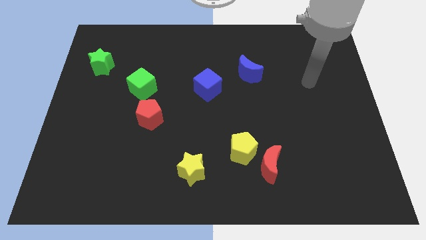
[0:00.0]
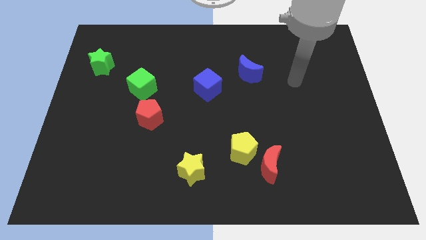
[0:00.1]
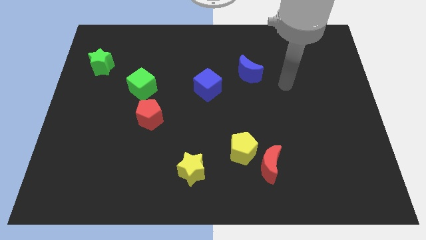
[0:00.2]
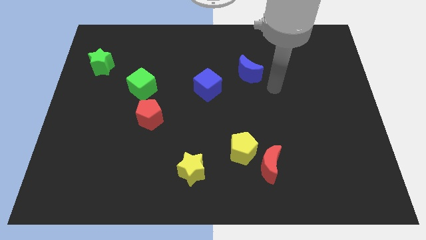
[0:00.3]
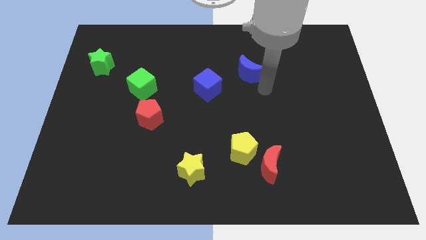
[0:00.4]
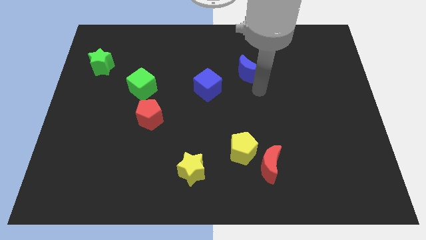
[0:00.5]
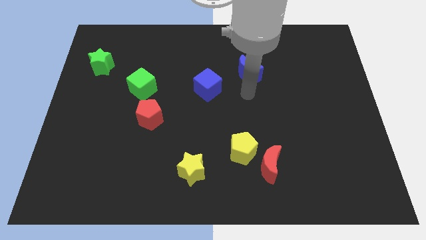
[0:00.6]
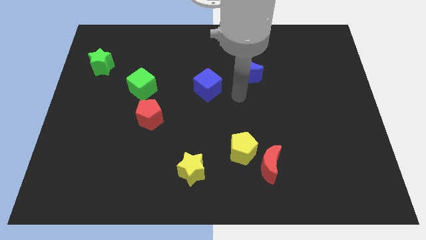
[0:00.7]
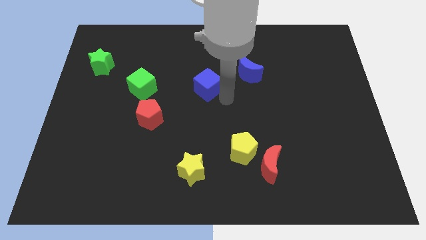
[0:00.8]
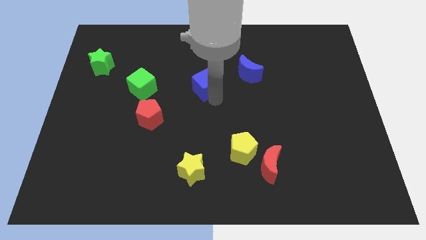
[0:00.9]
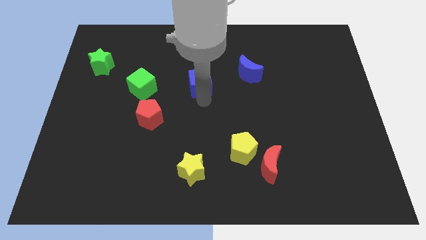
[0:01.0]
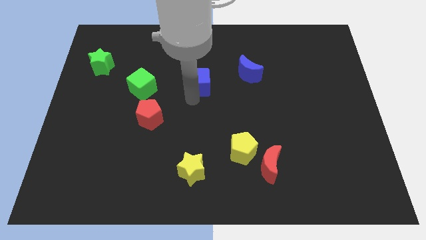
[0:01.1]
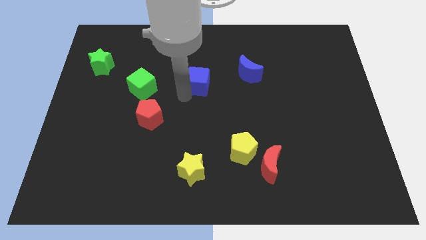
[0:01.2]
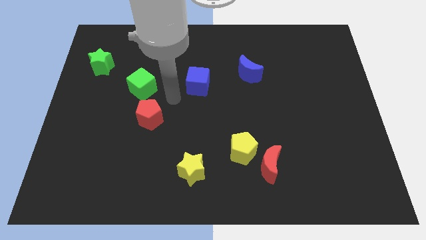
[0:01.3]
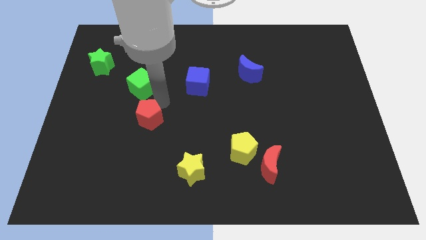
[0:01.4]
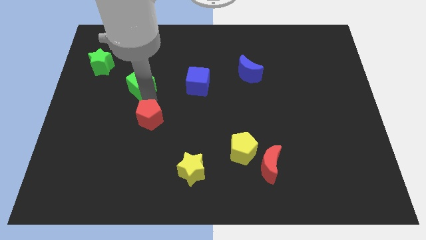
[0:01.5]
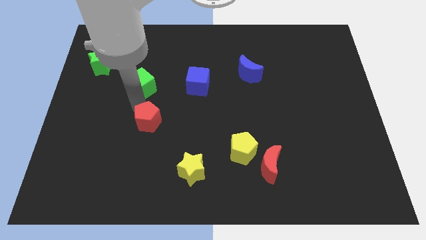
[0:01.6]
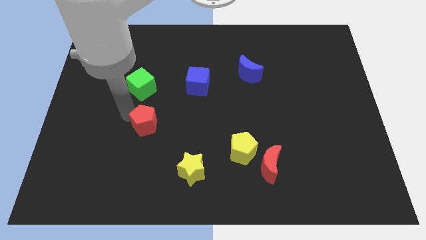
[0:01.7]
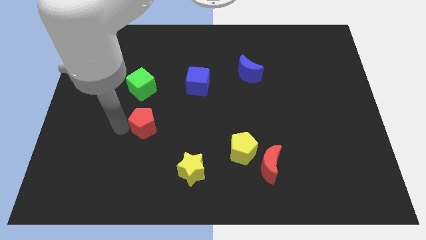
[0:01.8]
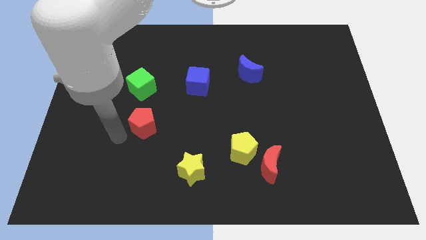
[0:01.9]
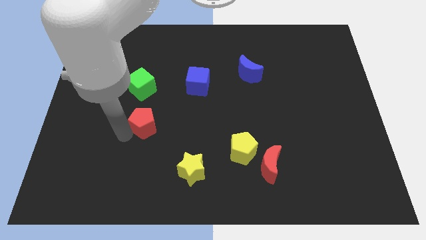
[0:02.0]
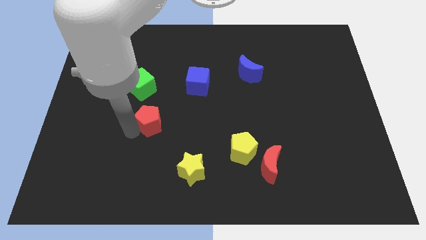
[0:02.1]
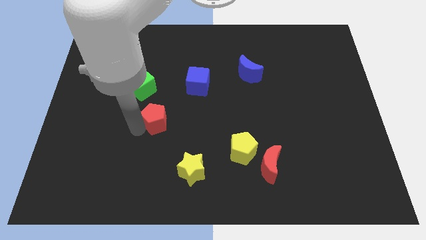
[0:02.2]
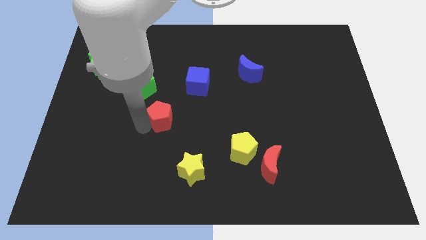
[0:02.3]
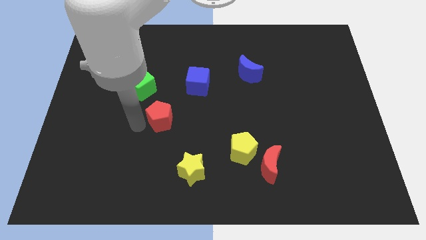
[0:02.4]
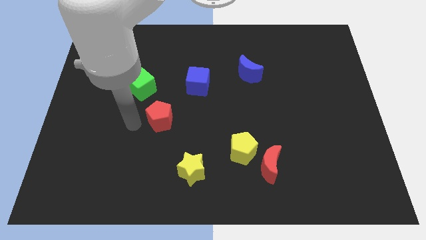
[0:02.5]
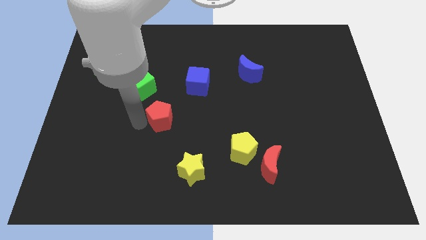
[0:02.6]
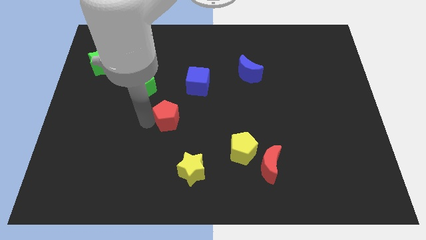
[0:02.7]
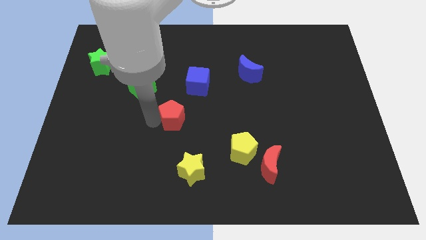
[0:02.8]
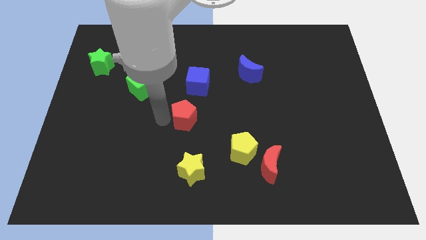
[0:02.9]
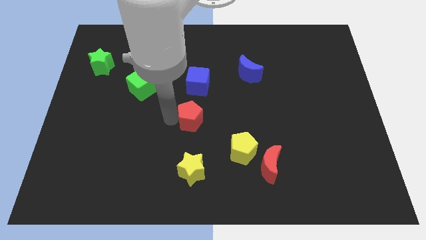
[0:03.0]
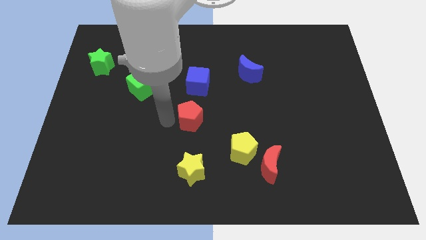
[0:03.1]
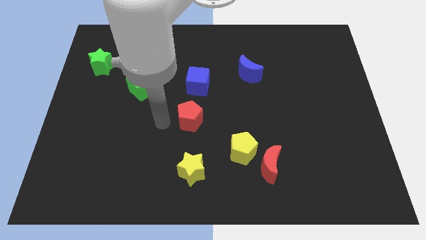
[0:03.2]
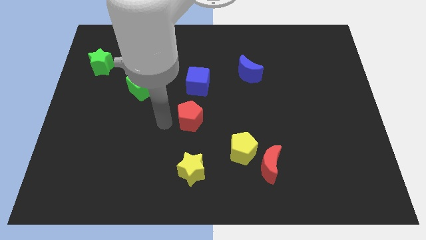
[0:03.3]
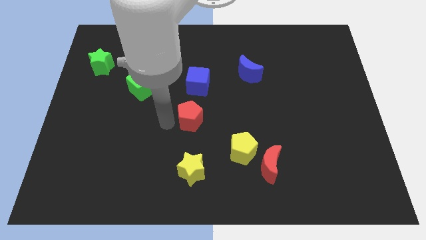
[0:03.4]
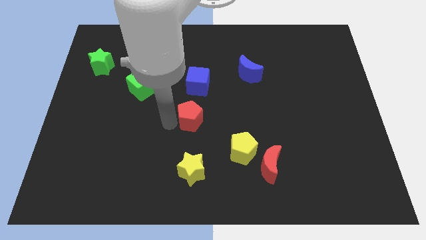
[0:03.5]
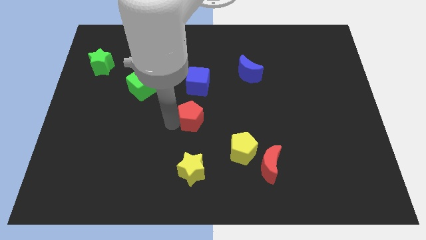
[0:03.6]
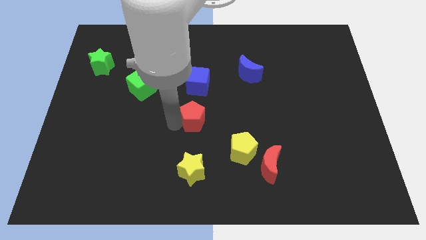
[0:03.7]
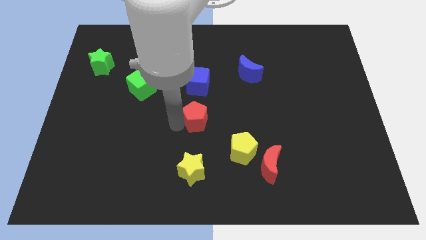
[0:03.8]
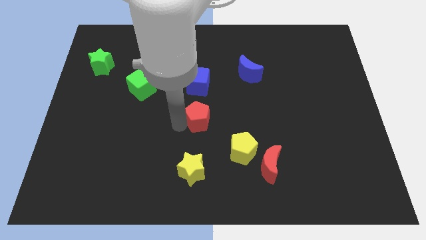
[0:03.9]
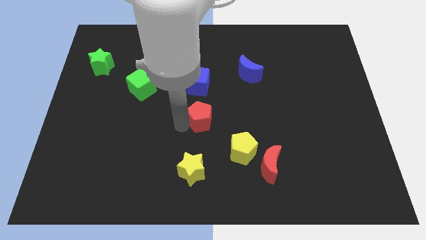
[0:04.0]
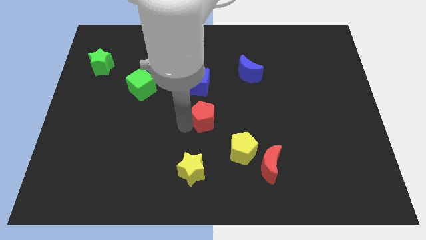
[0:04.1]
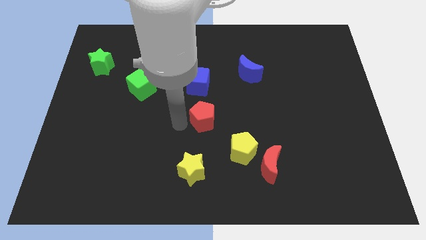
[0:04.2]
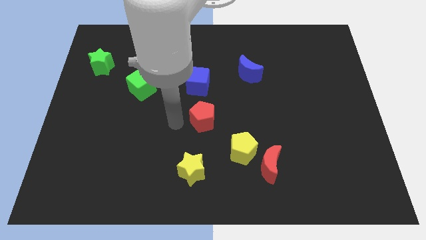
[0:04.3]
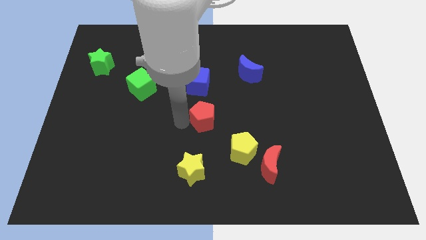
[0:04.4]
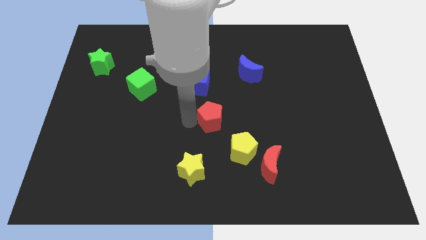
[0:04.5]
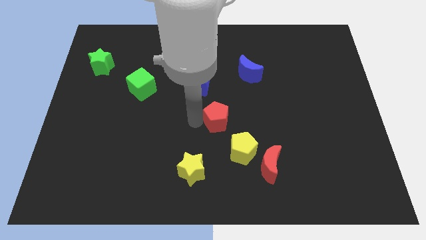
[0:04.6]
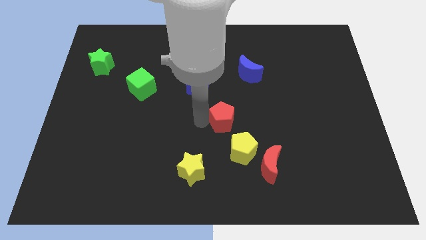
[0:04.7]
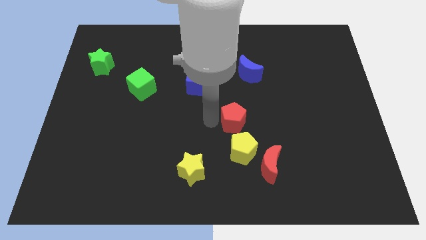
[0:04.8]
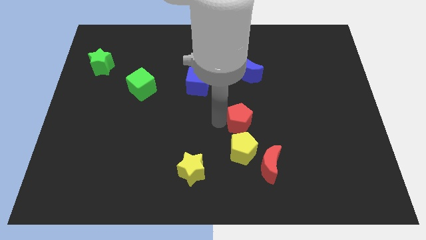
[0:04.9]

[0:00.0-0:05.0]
push the red pentagon right

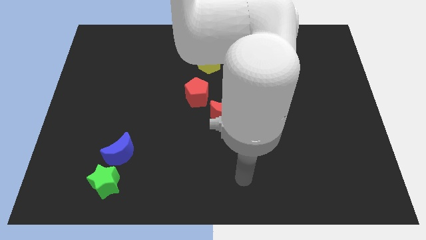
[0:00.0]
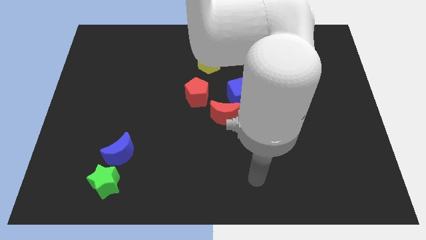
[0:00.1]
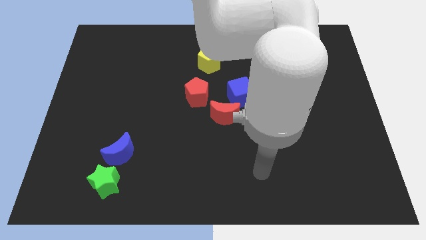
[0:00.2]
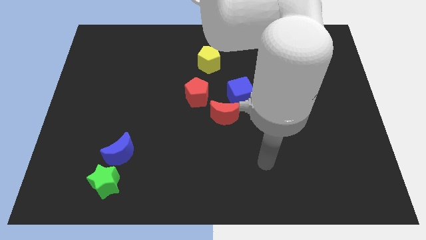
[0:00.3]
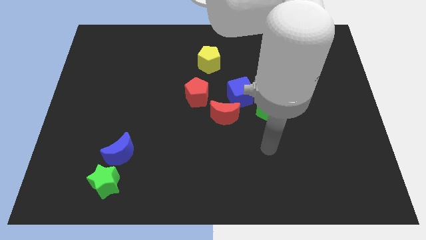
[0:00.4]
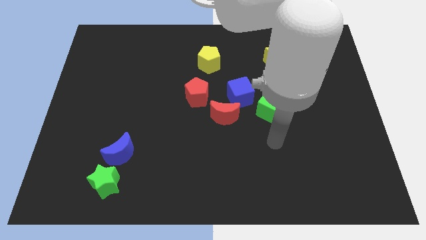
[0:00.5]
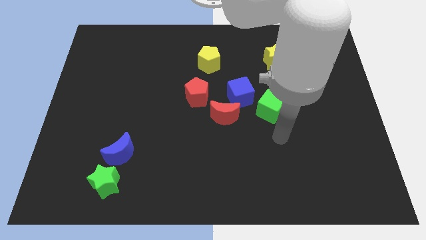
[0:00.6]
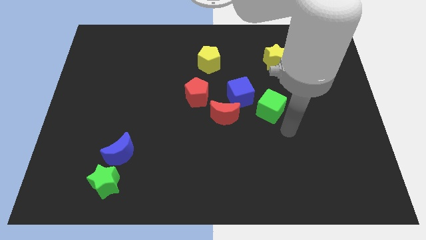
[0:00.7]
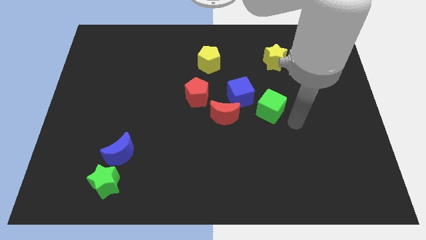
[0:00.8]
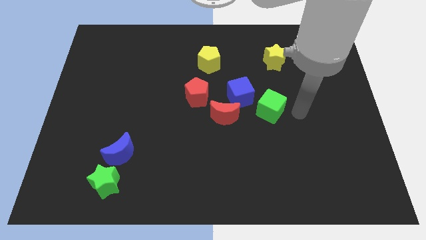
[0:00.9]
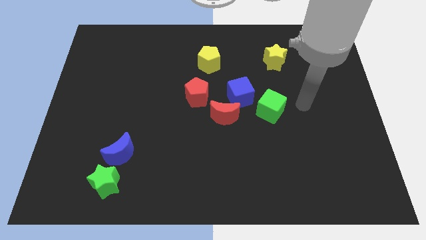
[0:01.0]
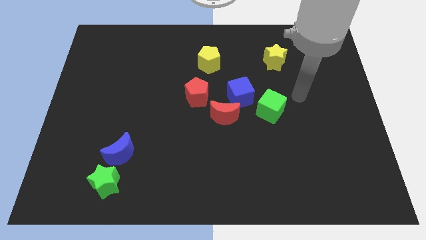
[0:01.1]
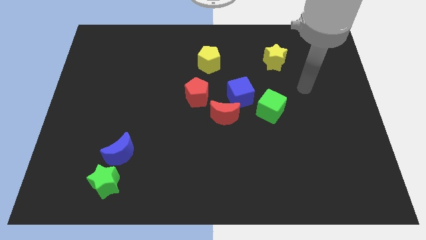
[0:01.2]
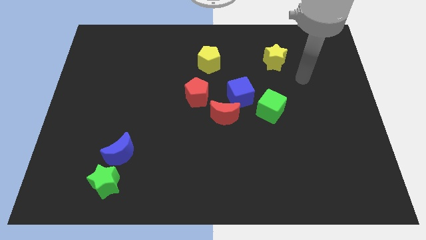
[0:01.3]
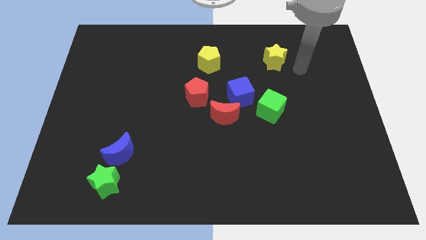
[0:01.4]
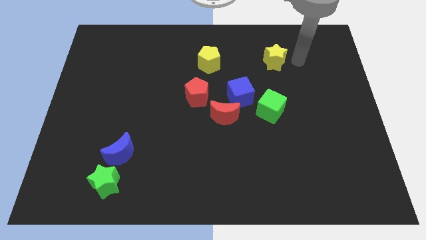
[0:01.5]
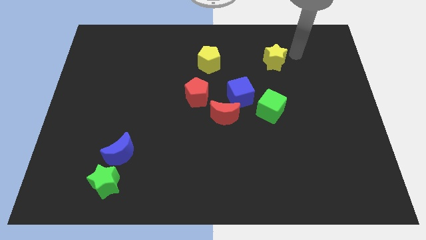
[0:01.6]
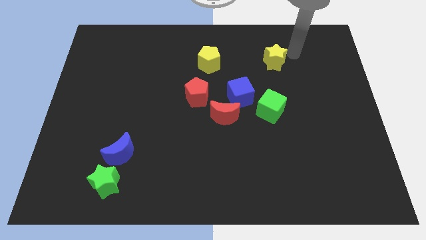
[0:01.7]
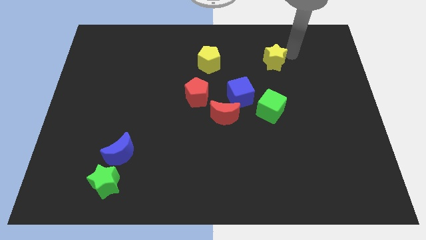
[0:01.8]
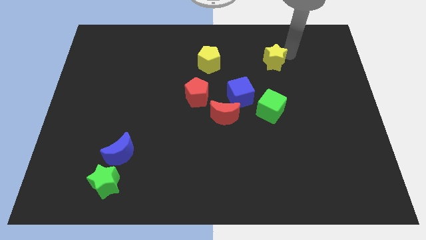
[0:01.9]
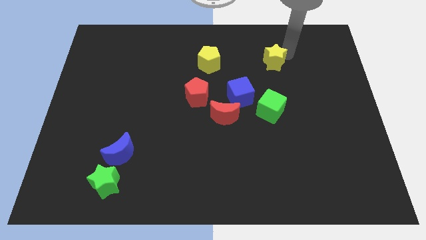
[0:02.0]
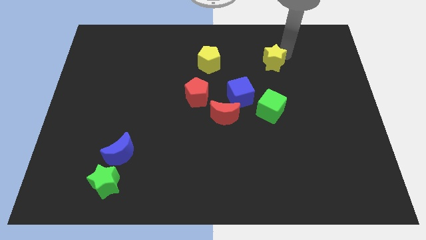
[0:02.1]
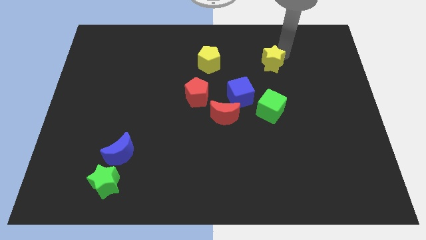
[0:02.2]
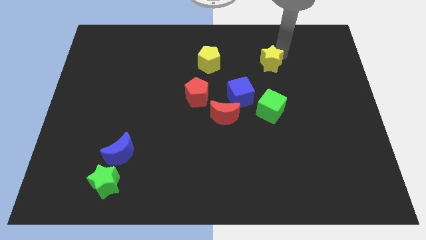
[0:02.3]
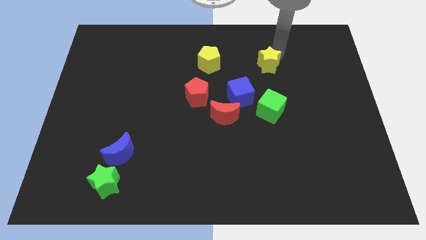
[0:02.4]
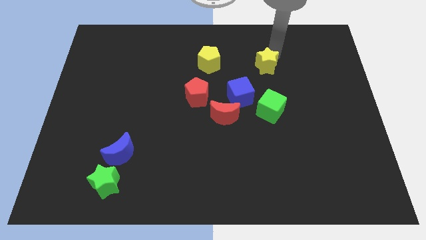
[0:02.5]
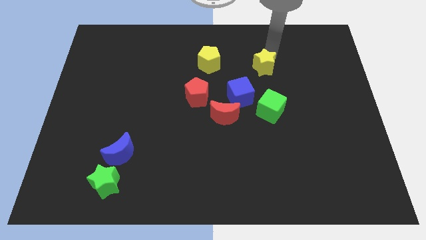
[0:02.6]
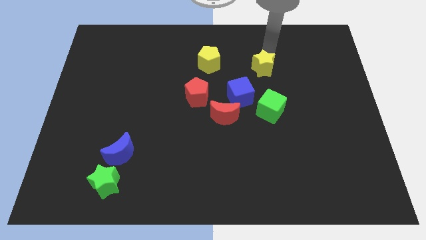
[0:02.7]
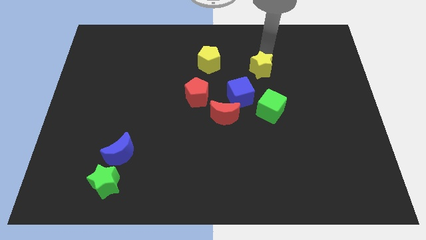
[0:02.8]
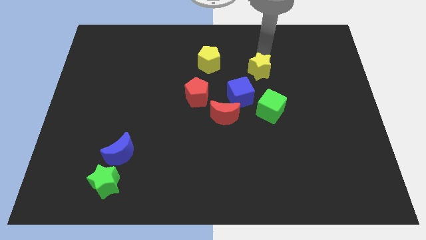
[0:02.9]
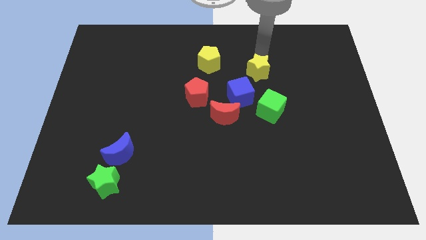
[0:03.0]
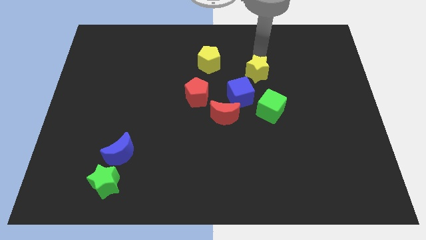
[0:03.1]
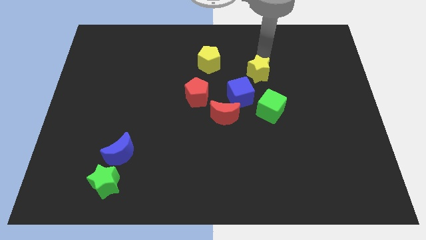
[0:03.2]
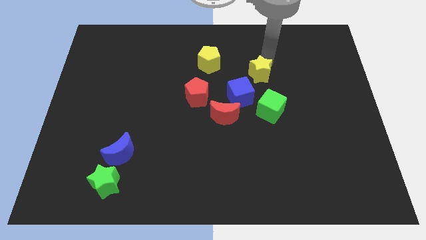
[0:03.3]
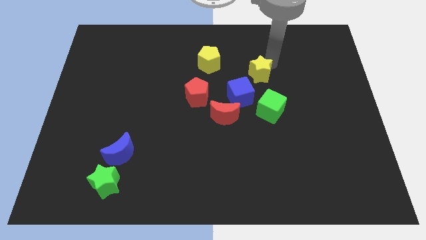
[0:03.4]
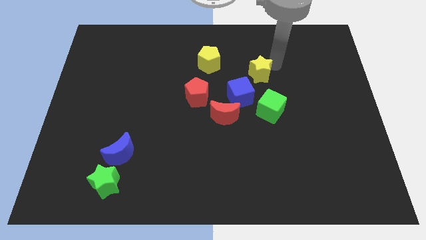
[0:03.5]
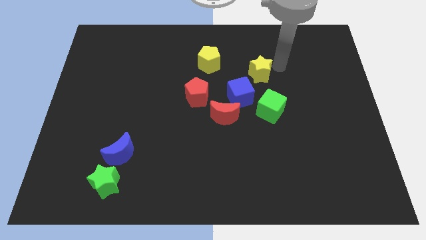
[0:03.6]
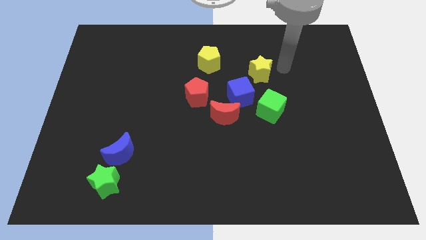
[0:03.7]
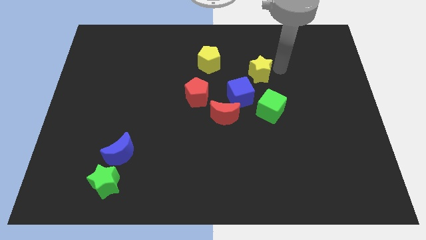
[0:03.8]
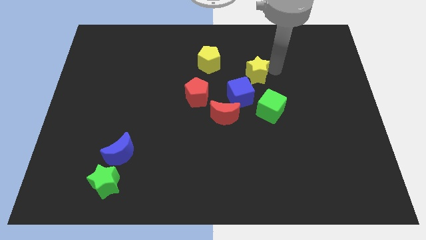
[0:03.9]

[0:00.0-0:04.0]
slide the yellow star a bit down and then to the left
